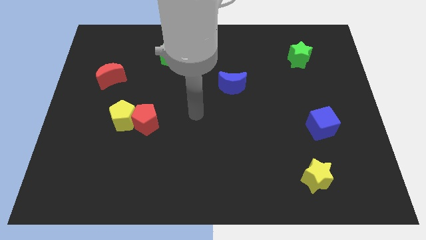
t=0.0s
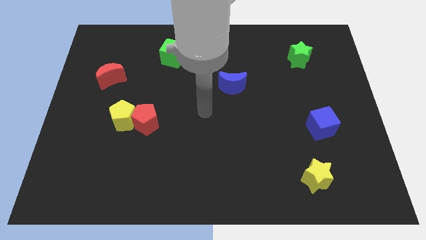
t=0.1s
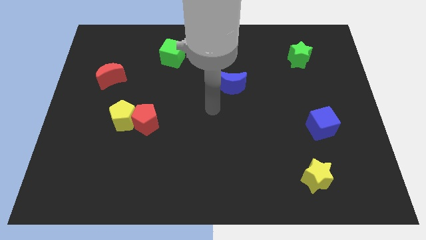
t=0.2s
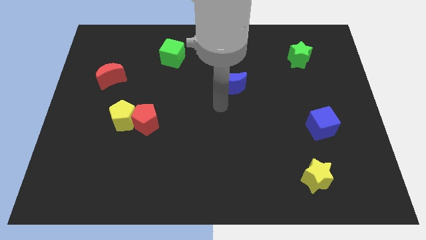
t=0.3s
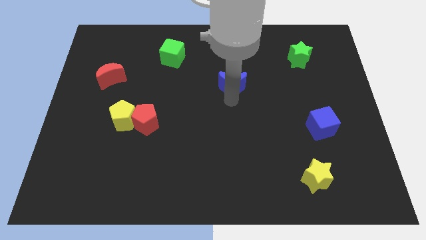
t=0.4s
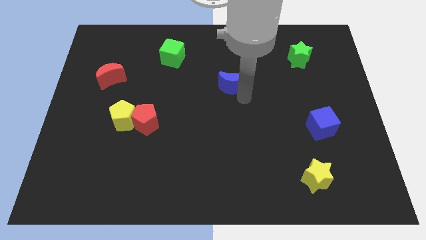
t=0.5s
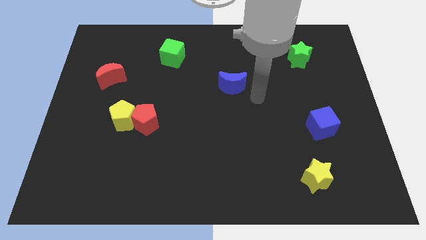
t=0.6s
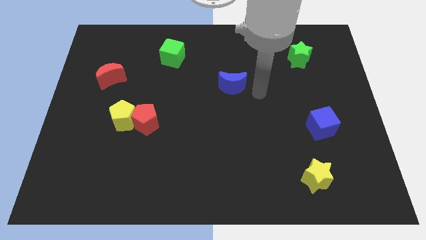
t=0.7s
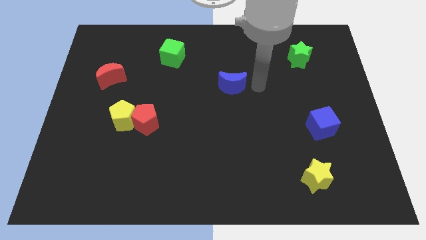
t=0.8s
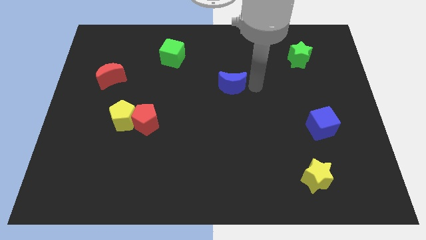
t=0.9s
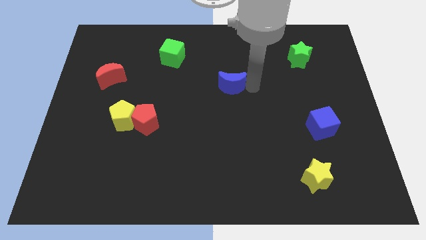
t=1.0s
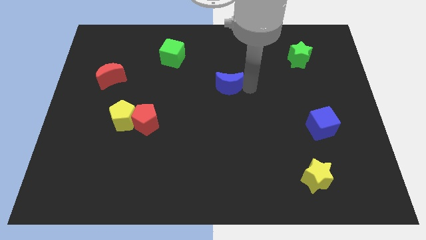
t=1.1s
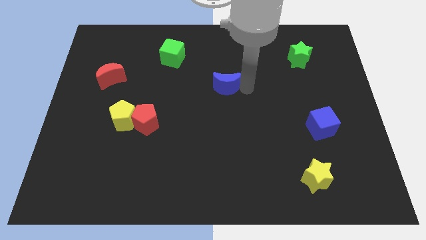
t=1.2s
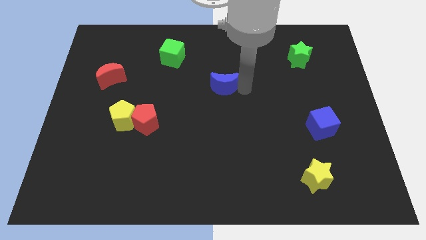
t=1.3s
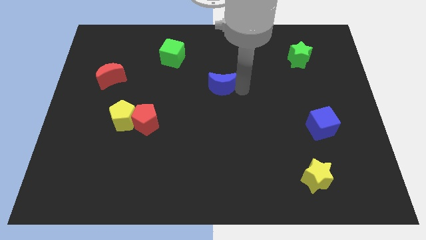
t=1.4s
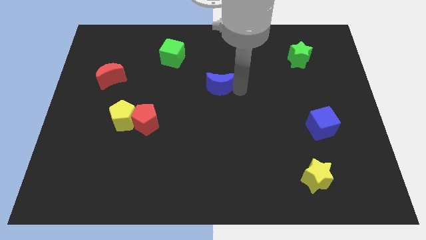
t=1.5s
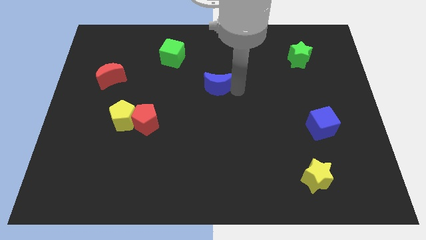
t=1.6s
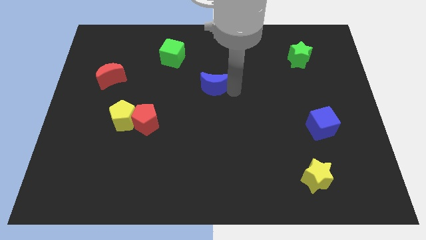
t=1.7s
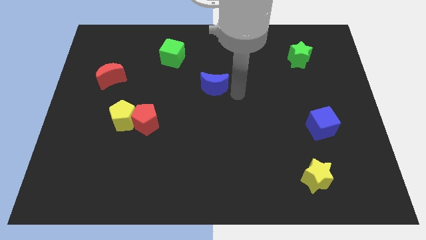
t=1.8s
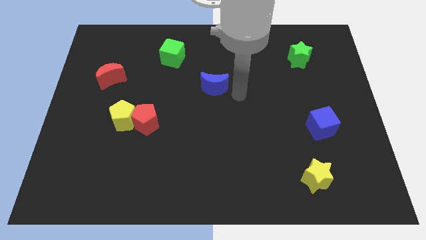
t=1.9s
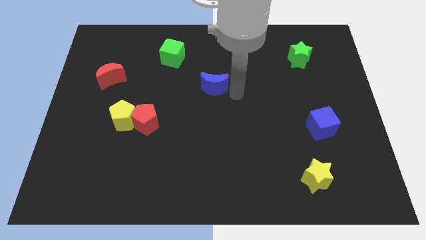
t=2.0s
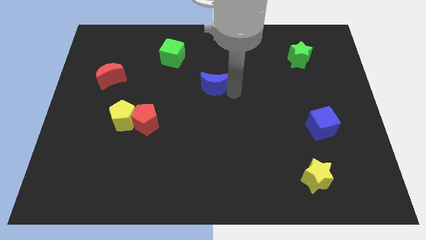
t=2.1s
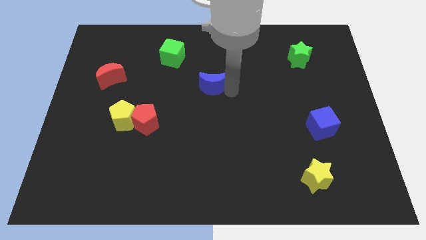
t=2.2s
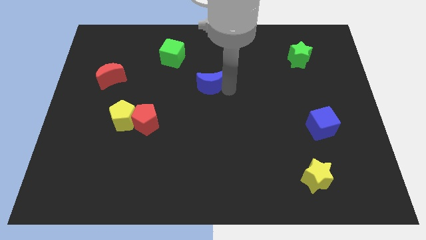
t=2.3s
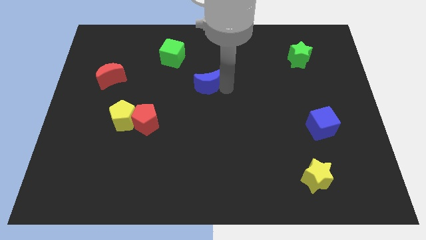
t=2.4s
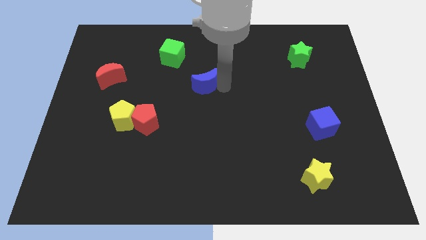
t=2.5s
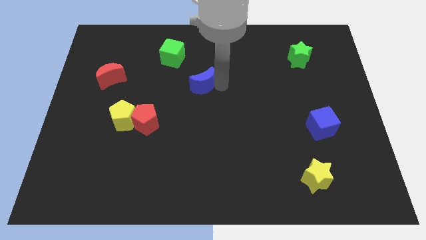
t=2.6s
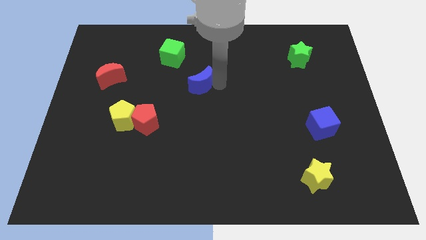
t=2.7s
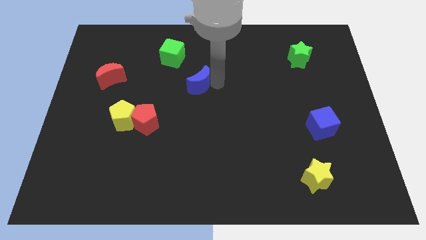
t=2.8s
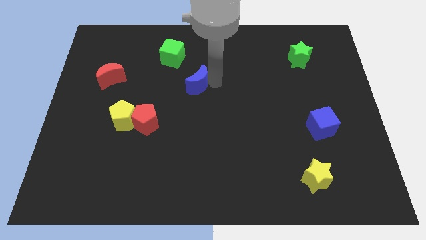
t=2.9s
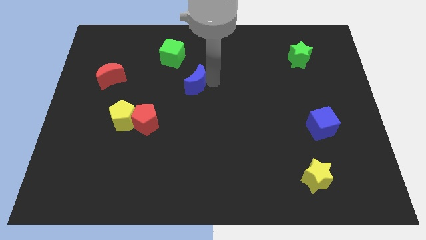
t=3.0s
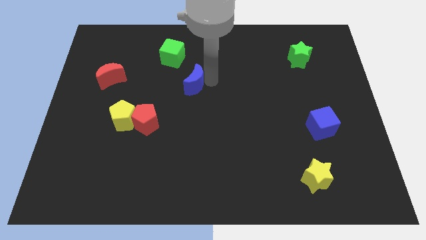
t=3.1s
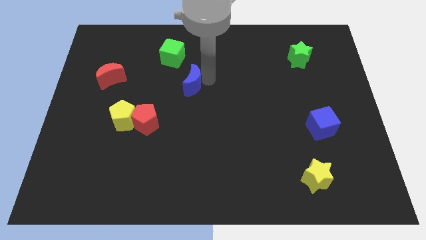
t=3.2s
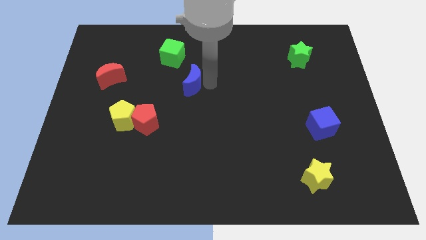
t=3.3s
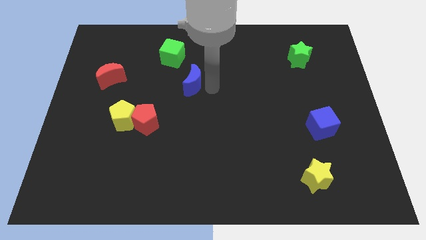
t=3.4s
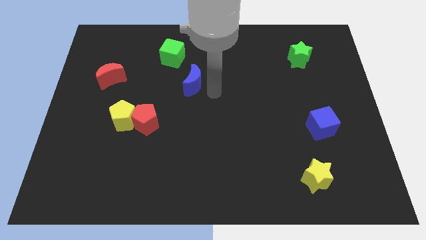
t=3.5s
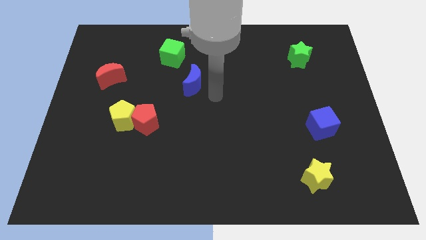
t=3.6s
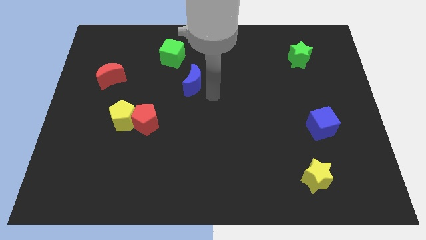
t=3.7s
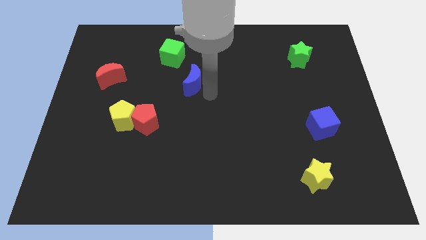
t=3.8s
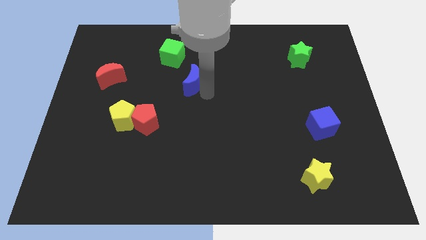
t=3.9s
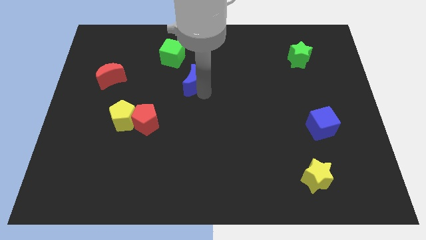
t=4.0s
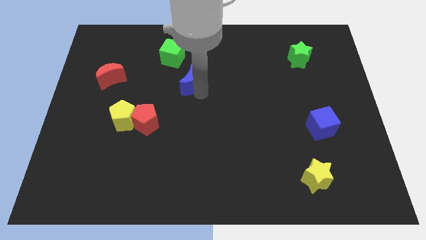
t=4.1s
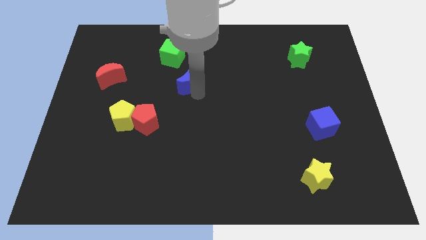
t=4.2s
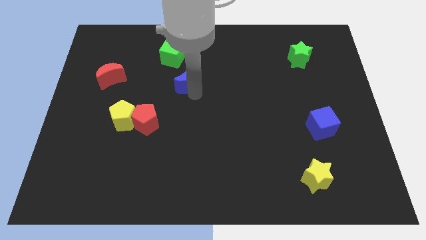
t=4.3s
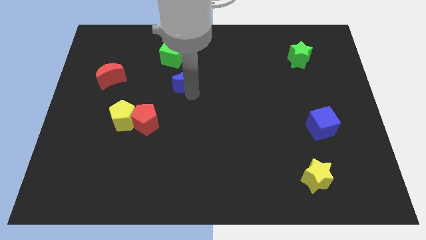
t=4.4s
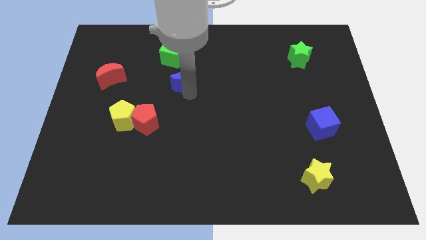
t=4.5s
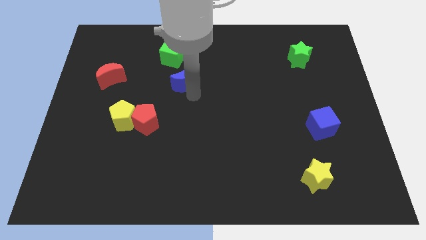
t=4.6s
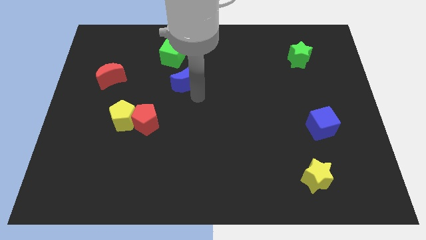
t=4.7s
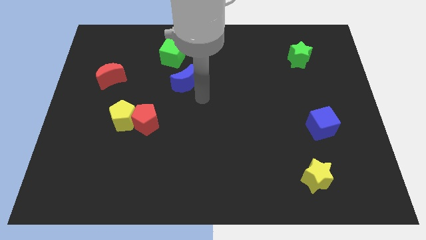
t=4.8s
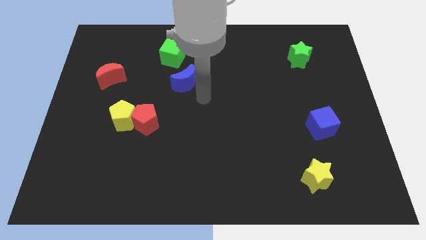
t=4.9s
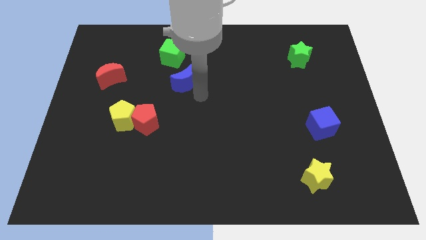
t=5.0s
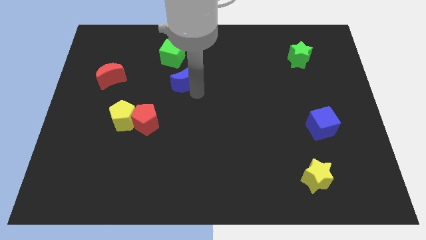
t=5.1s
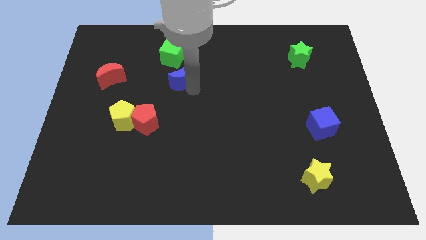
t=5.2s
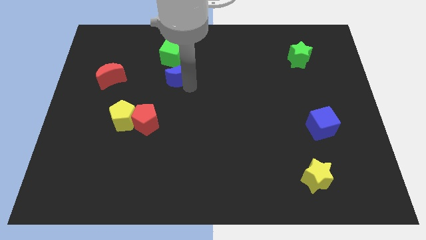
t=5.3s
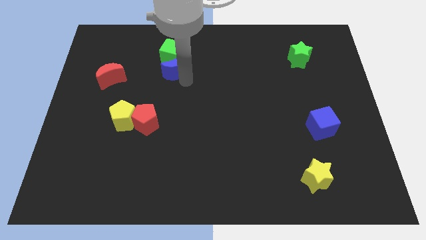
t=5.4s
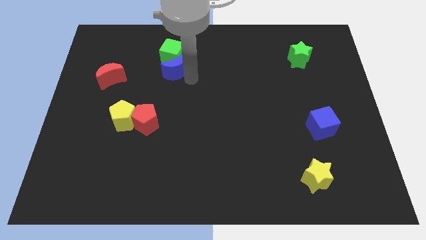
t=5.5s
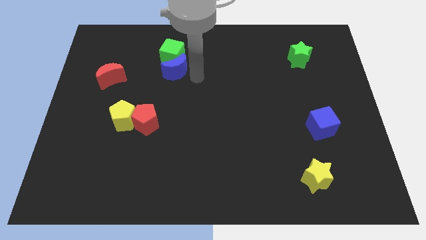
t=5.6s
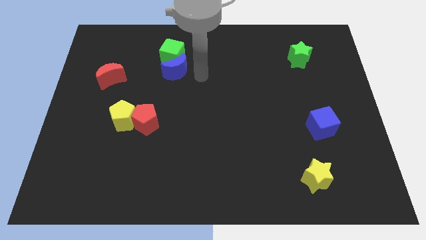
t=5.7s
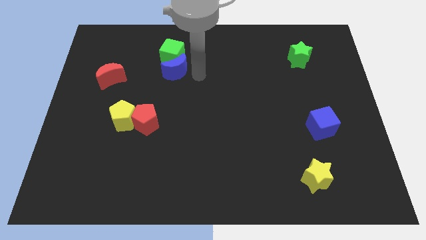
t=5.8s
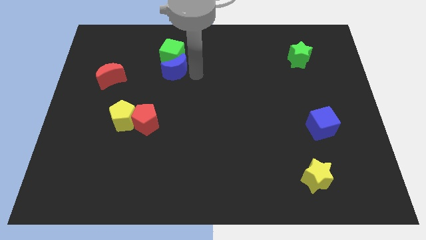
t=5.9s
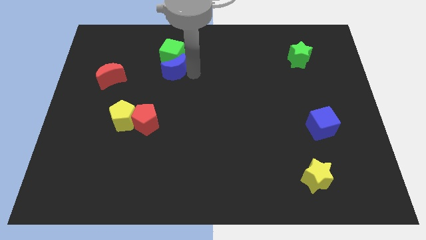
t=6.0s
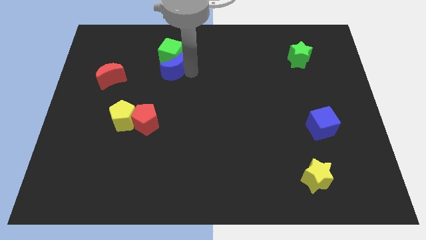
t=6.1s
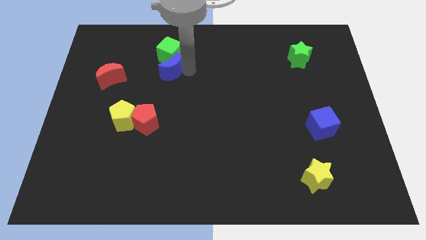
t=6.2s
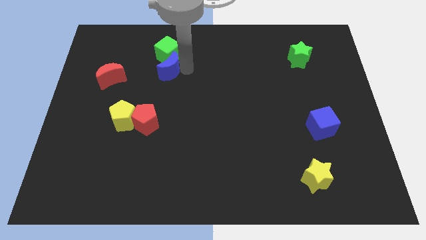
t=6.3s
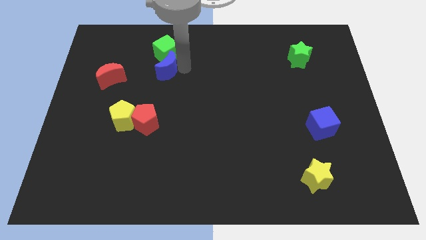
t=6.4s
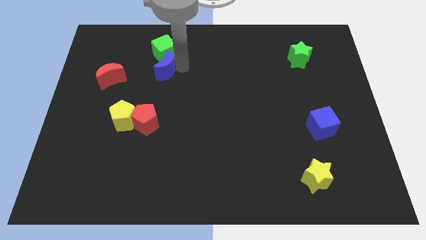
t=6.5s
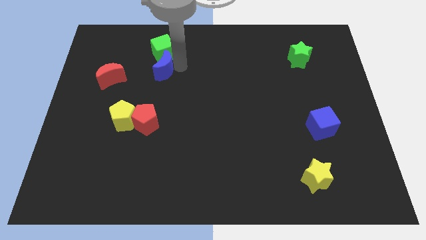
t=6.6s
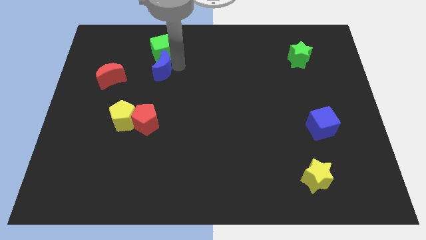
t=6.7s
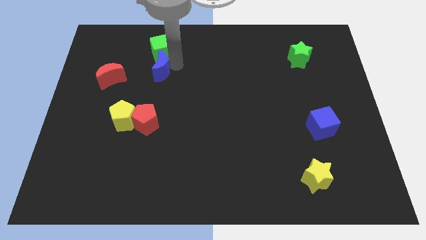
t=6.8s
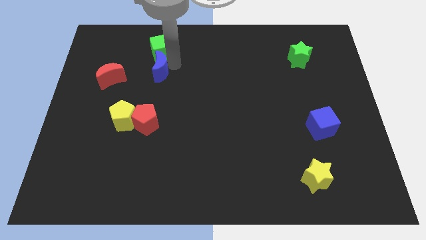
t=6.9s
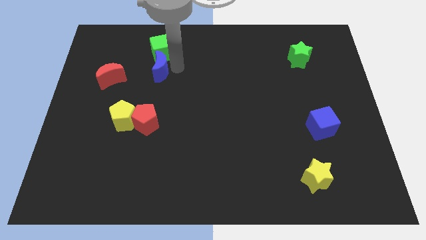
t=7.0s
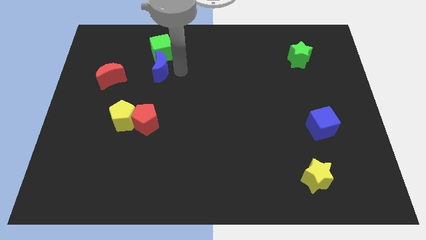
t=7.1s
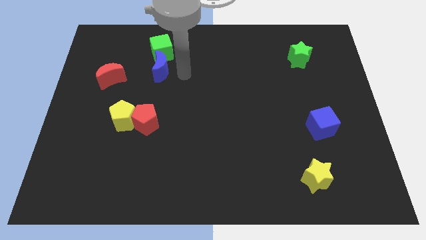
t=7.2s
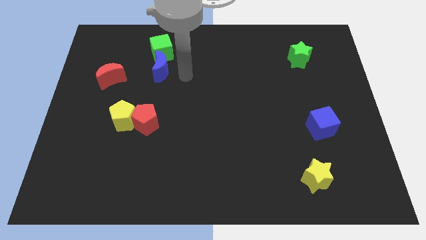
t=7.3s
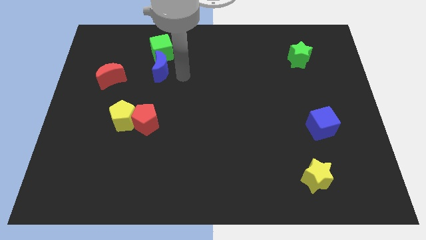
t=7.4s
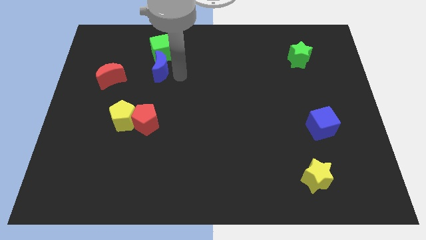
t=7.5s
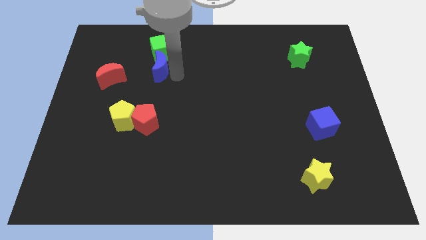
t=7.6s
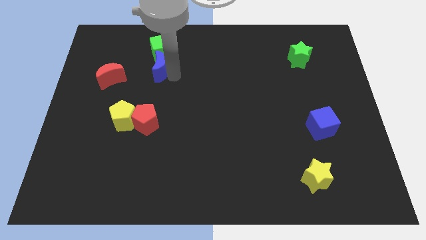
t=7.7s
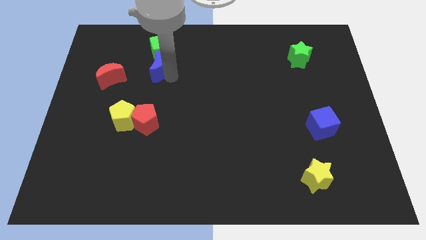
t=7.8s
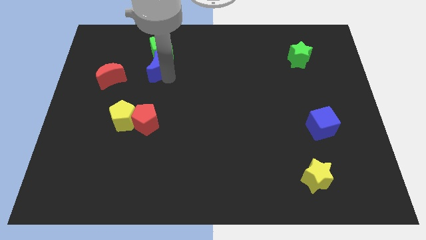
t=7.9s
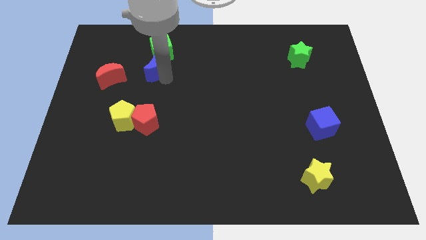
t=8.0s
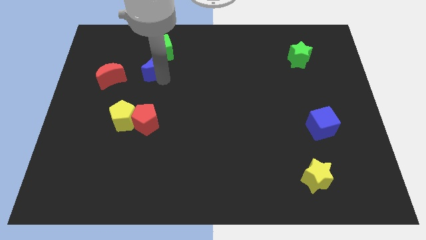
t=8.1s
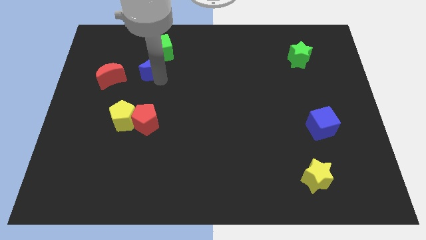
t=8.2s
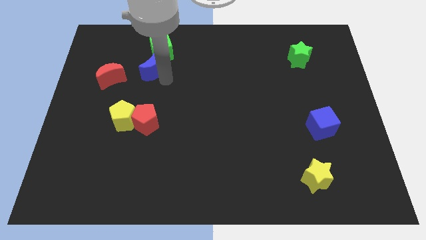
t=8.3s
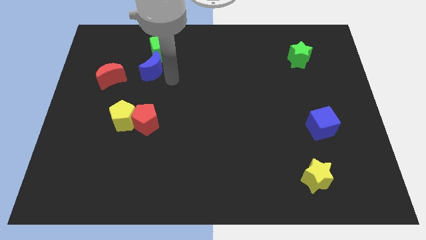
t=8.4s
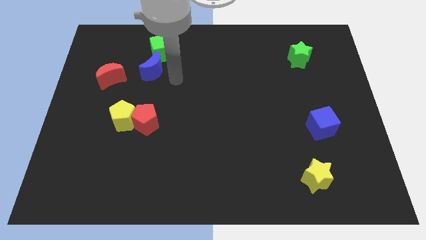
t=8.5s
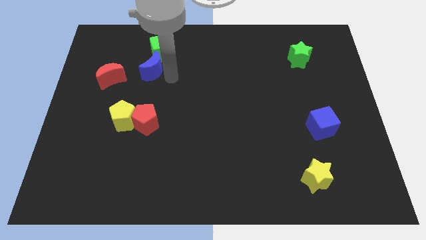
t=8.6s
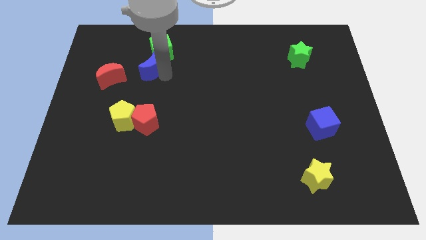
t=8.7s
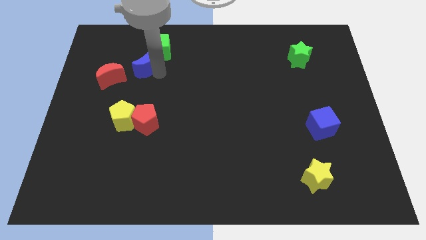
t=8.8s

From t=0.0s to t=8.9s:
move the blue moon to the top right of the red moon
